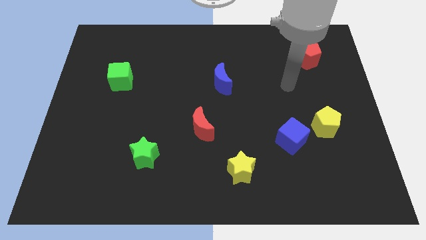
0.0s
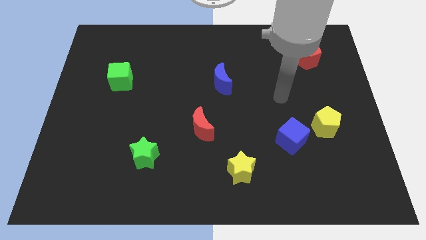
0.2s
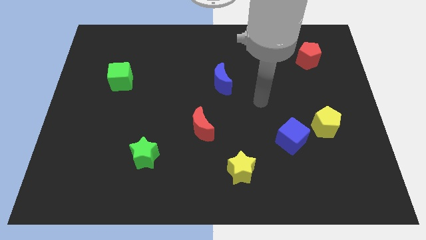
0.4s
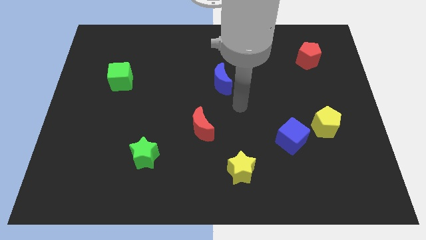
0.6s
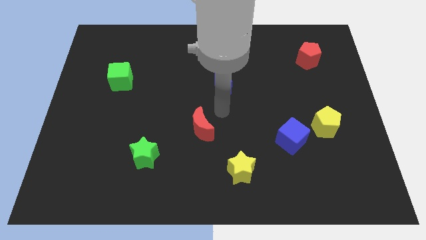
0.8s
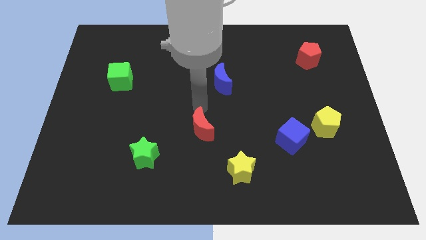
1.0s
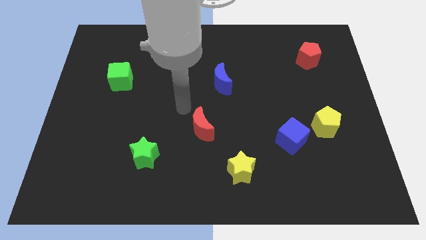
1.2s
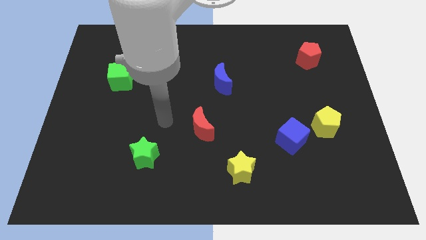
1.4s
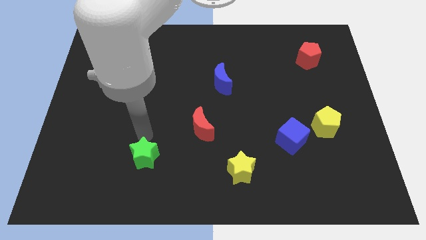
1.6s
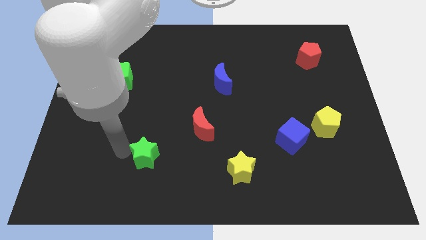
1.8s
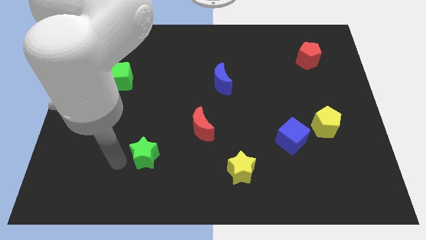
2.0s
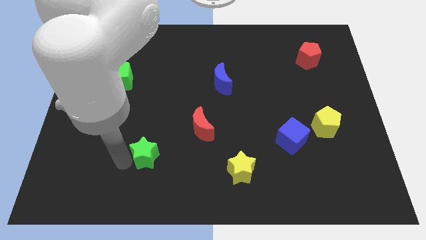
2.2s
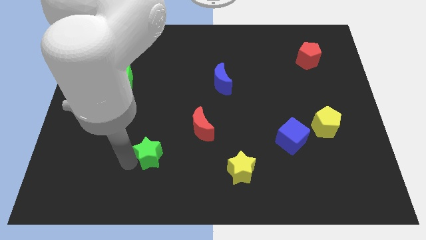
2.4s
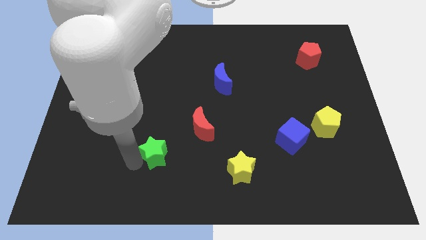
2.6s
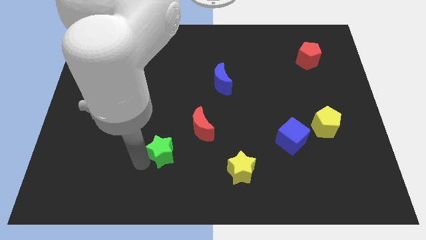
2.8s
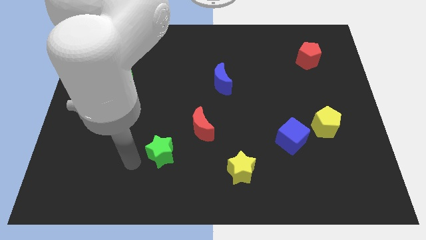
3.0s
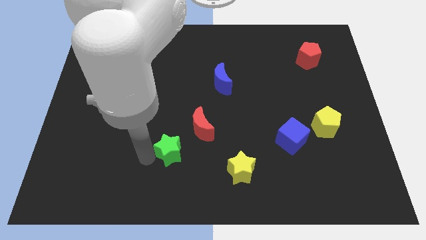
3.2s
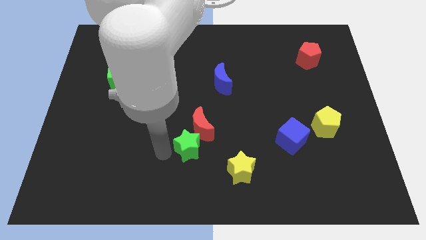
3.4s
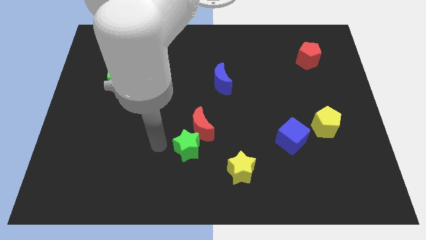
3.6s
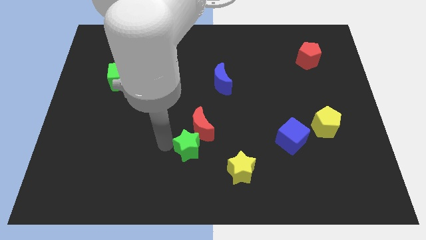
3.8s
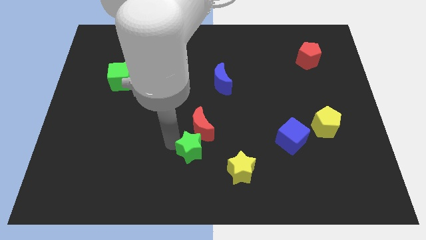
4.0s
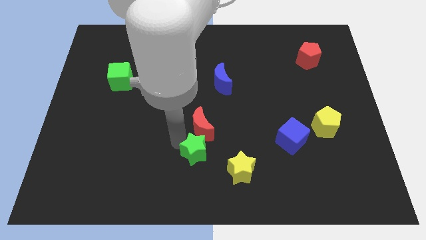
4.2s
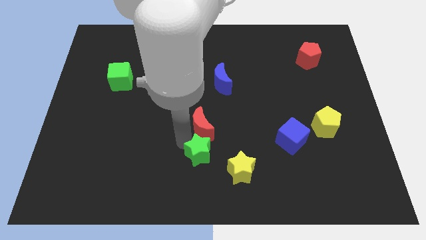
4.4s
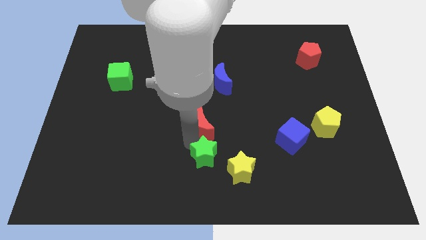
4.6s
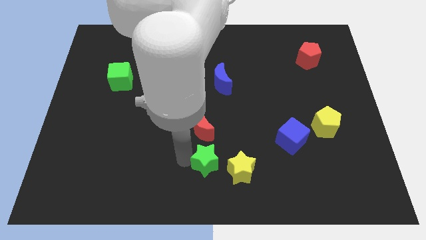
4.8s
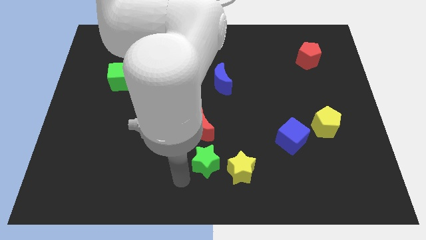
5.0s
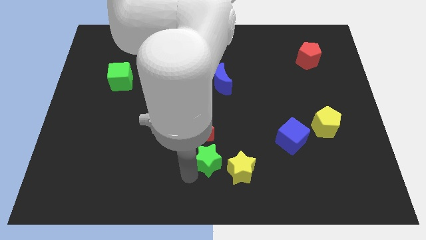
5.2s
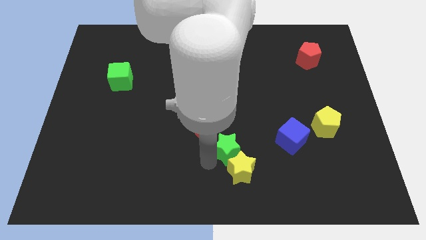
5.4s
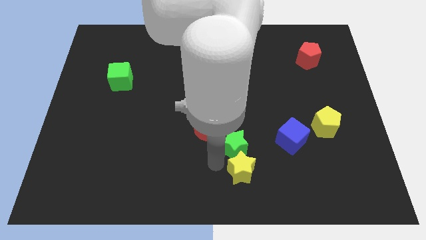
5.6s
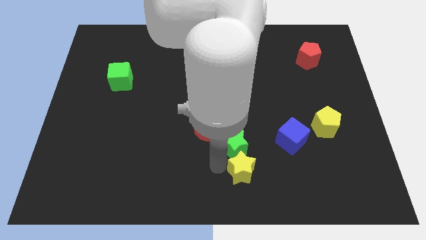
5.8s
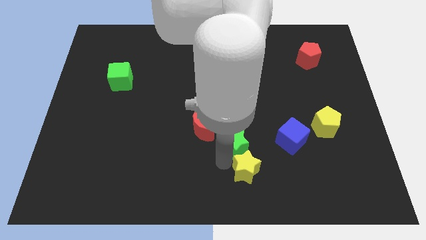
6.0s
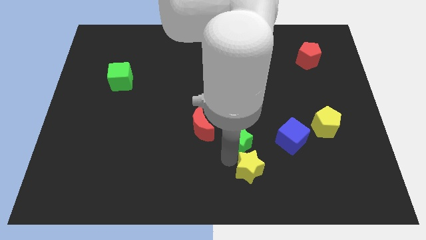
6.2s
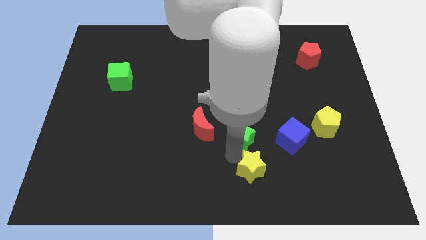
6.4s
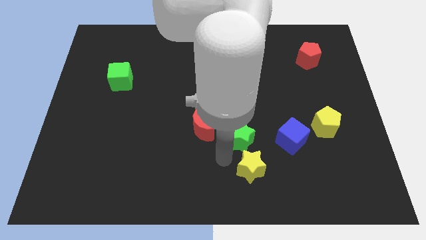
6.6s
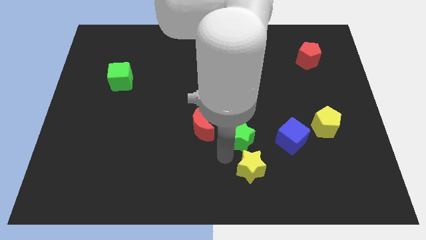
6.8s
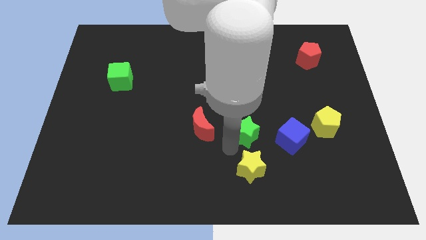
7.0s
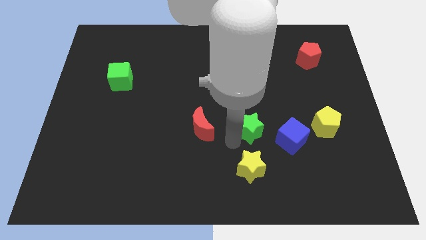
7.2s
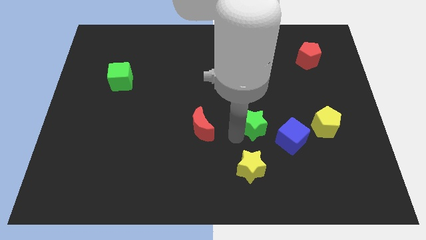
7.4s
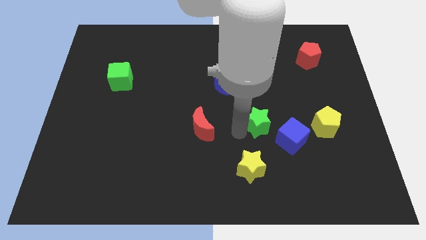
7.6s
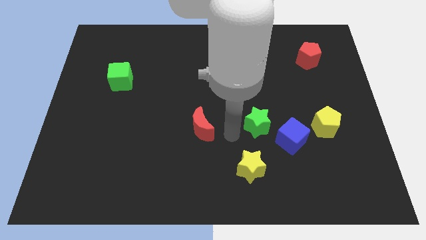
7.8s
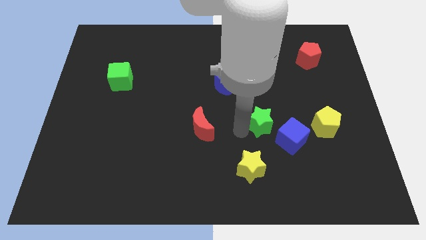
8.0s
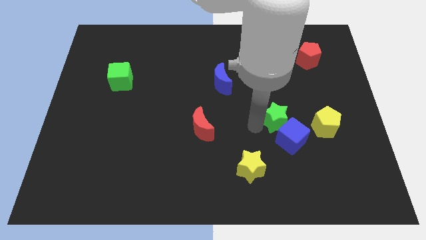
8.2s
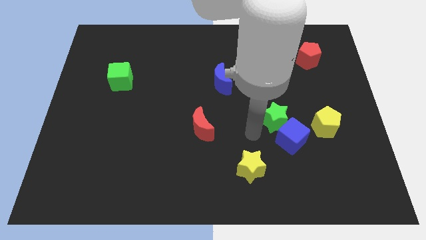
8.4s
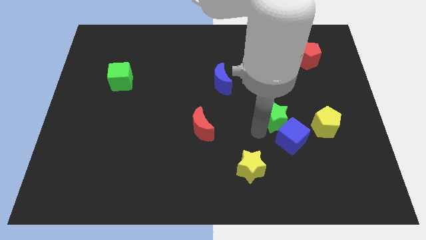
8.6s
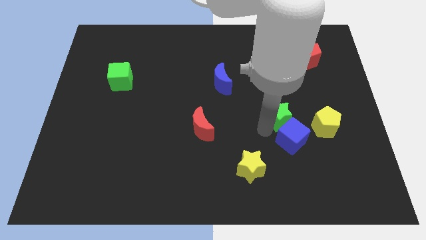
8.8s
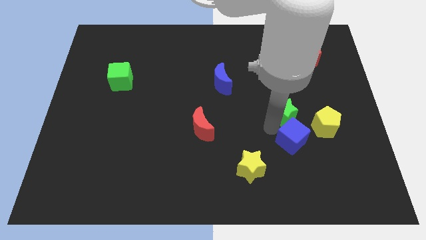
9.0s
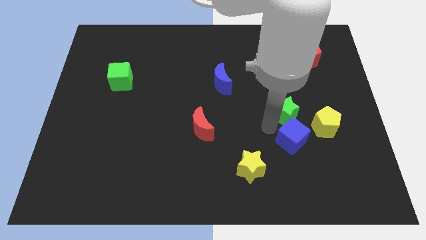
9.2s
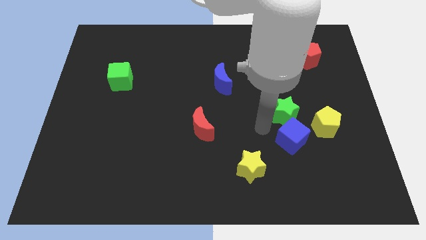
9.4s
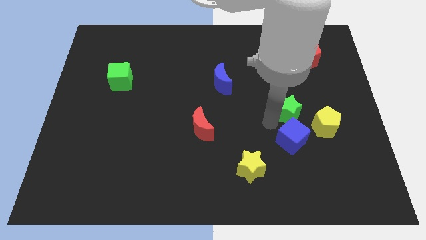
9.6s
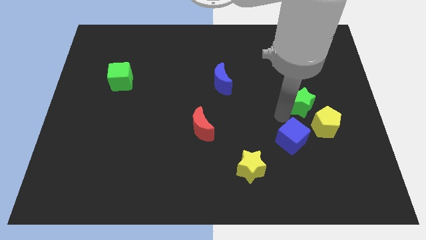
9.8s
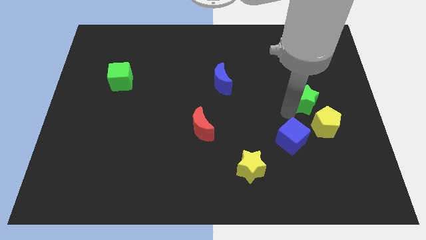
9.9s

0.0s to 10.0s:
move the green star to the bottom of the red pentagon

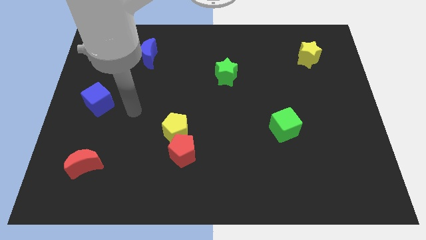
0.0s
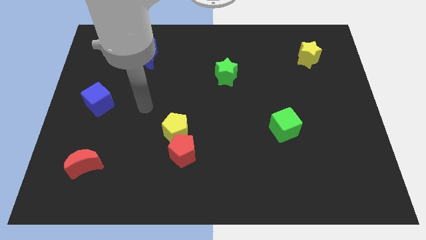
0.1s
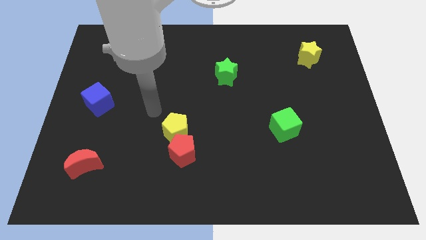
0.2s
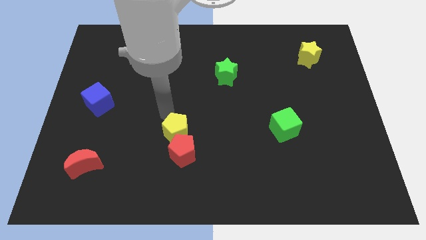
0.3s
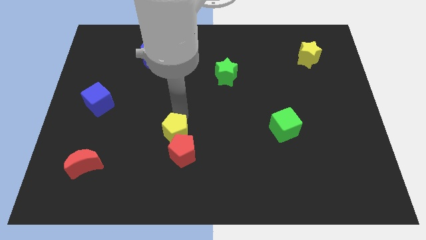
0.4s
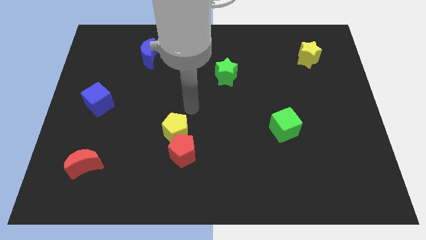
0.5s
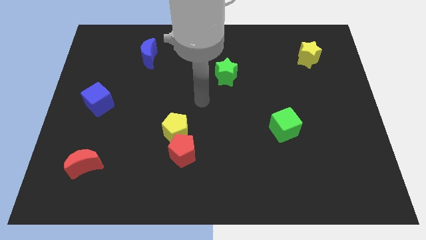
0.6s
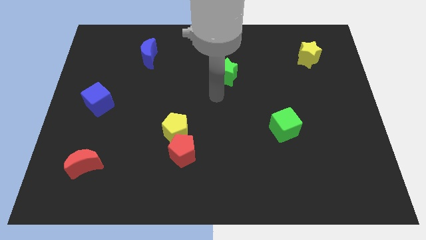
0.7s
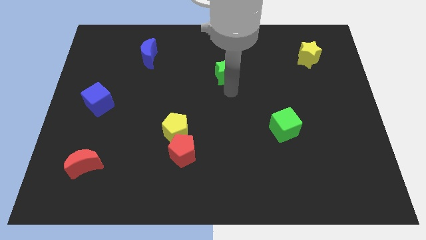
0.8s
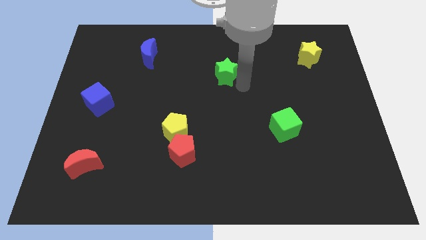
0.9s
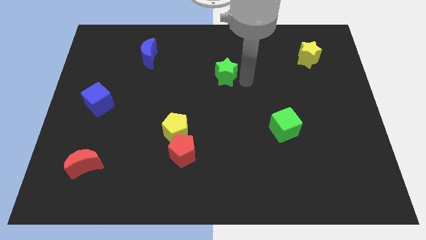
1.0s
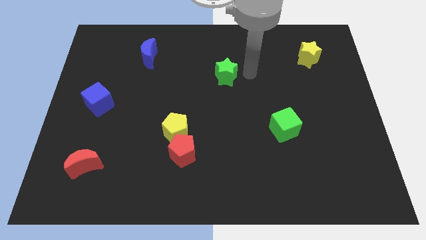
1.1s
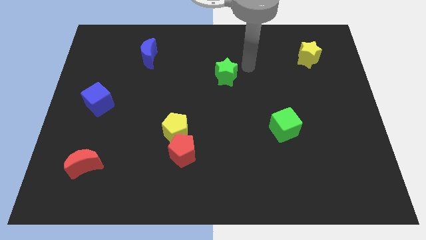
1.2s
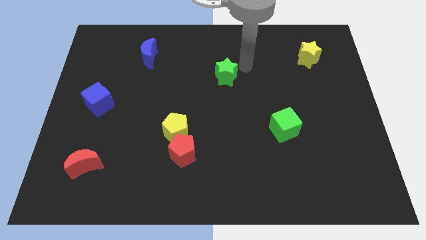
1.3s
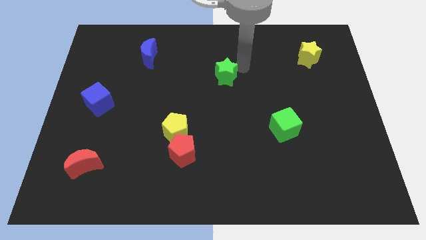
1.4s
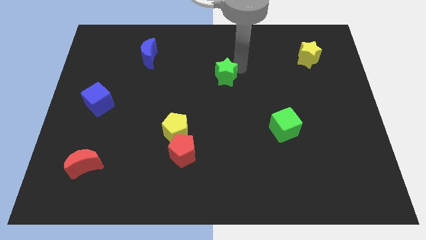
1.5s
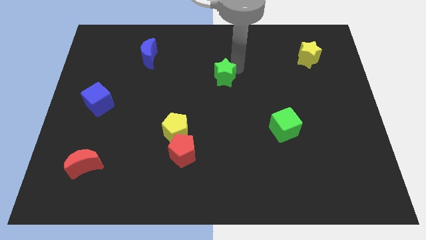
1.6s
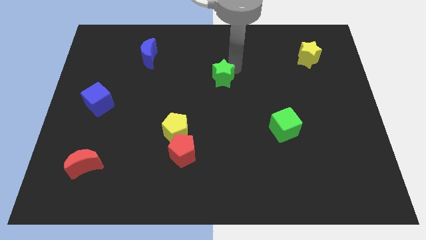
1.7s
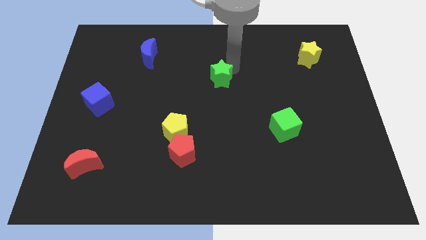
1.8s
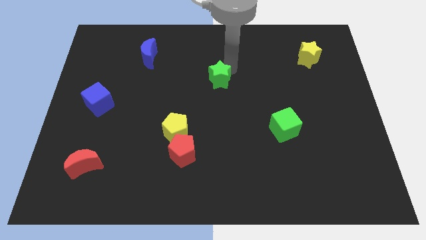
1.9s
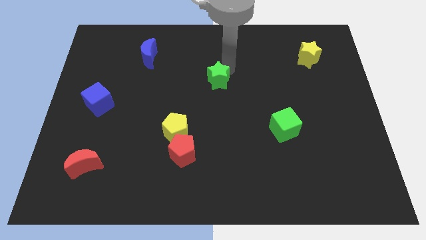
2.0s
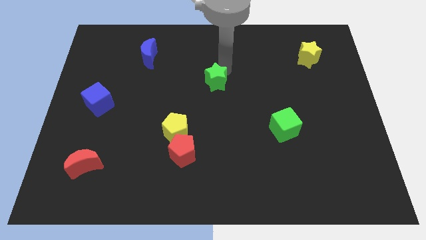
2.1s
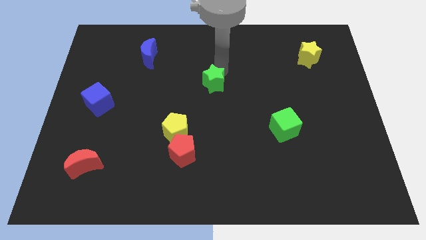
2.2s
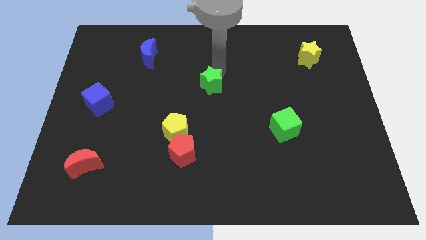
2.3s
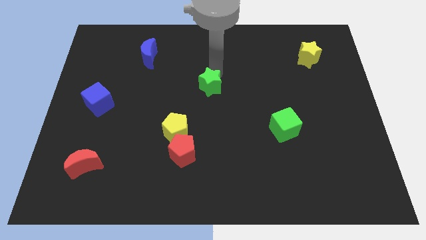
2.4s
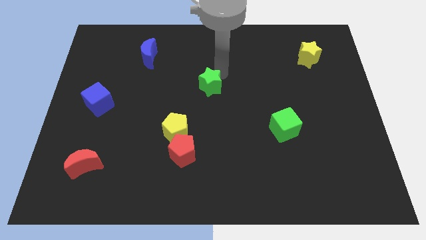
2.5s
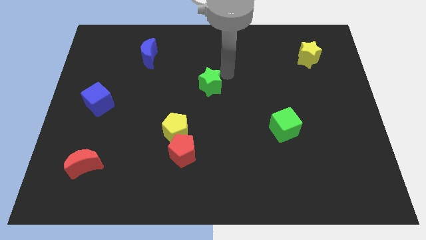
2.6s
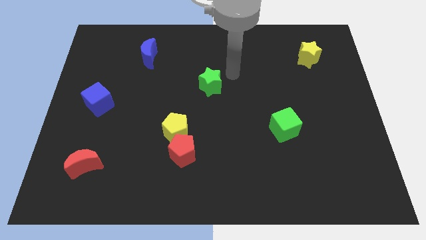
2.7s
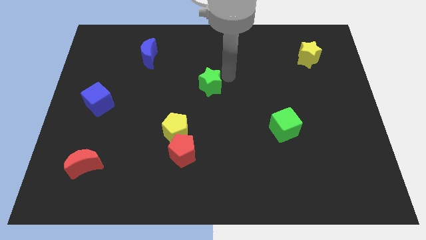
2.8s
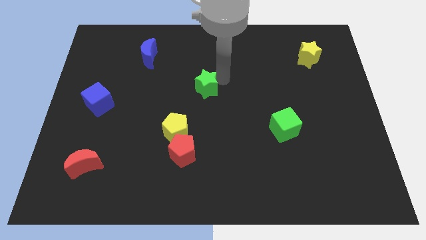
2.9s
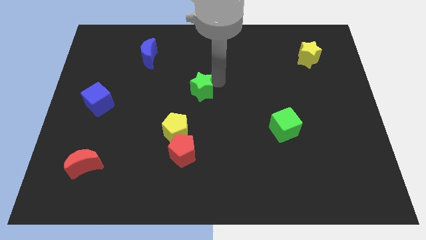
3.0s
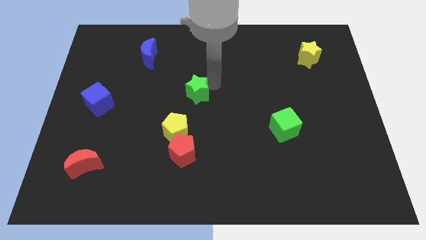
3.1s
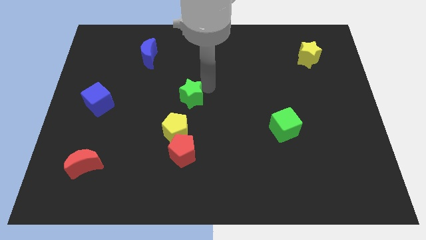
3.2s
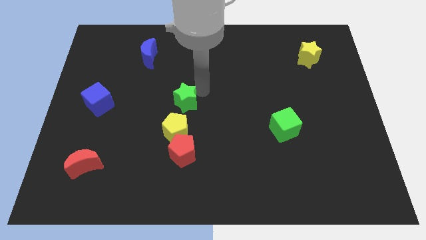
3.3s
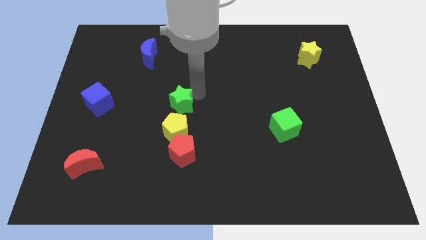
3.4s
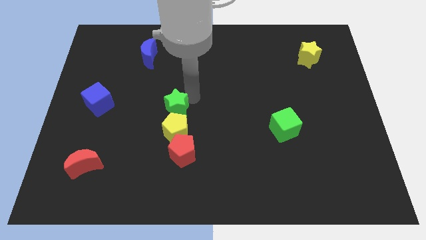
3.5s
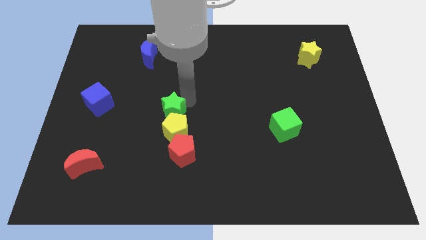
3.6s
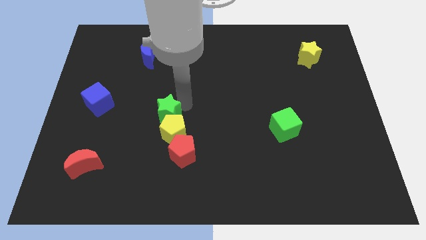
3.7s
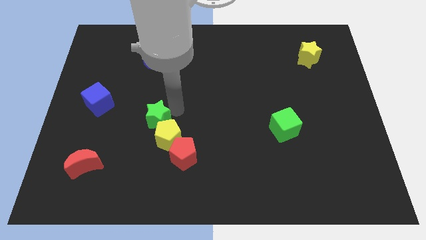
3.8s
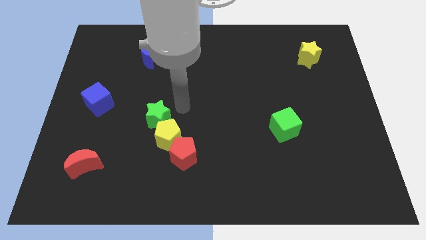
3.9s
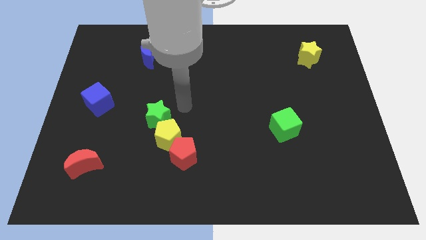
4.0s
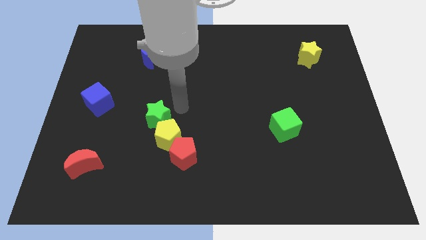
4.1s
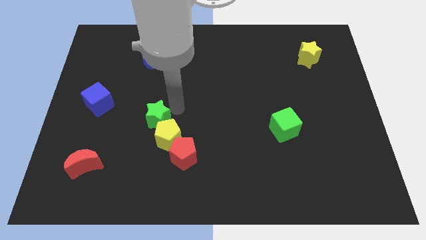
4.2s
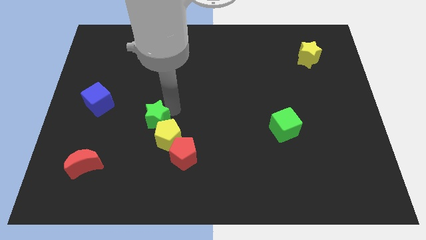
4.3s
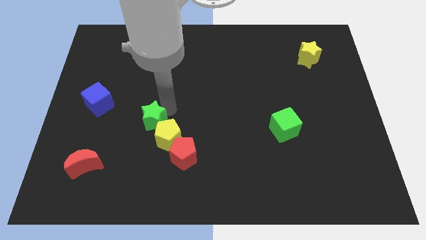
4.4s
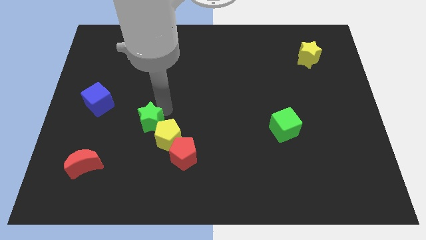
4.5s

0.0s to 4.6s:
move the green star to the left side of the yellow pentagon
